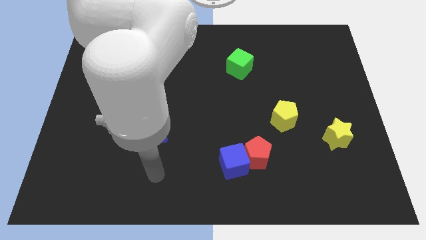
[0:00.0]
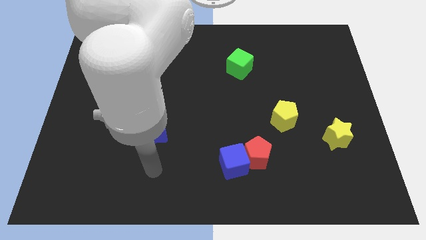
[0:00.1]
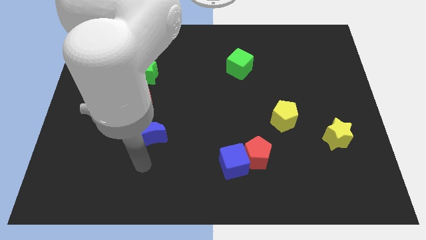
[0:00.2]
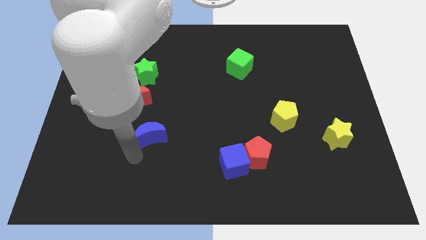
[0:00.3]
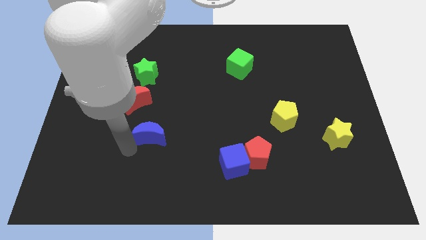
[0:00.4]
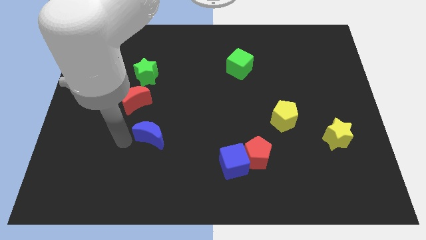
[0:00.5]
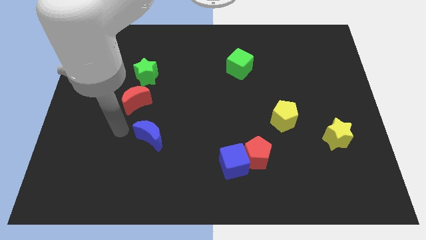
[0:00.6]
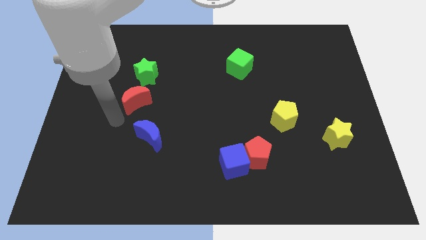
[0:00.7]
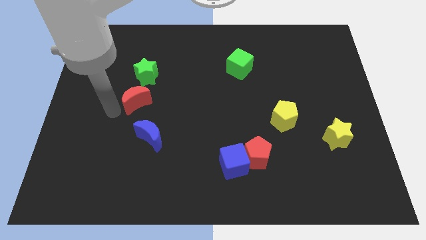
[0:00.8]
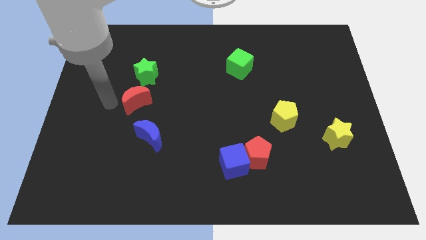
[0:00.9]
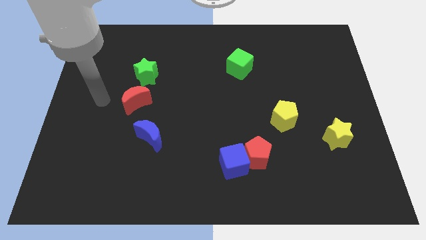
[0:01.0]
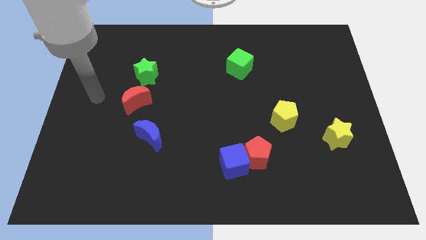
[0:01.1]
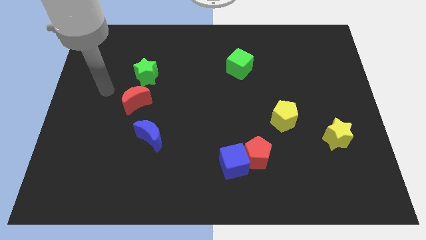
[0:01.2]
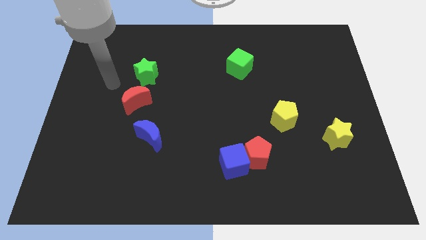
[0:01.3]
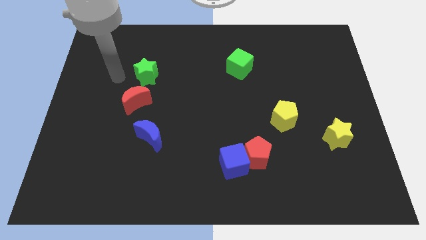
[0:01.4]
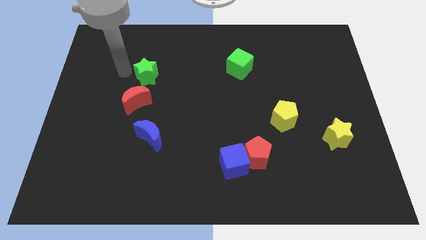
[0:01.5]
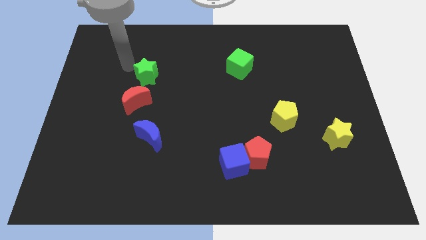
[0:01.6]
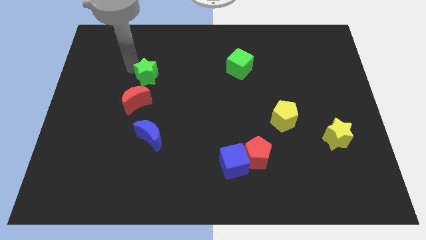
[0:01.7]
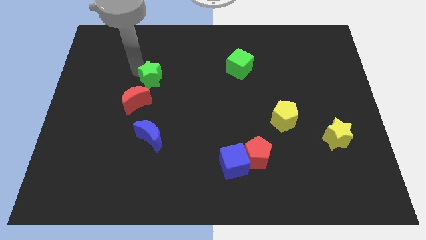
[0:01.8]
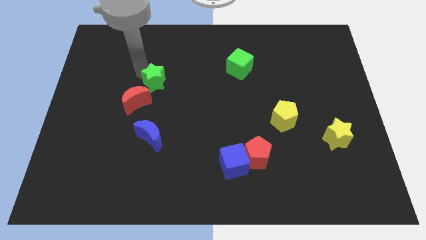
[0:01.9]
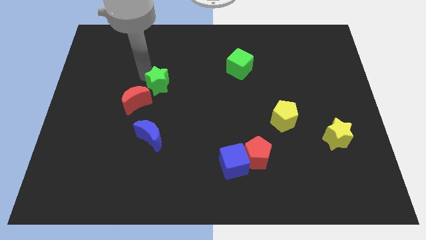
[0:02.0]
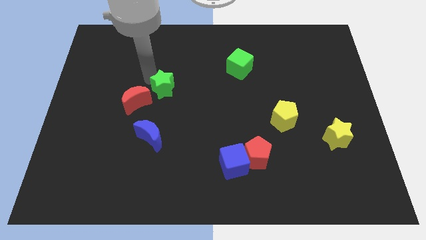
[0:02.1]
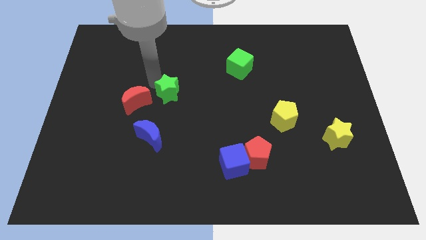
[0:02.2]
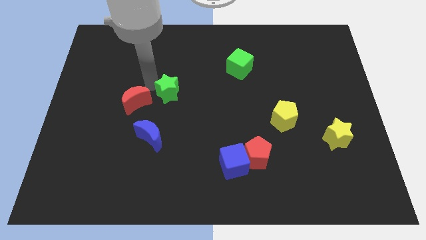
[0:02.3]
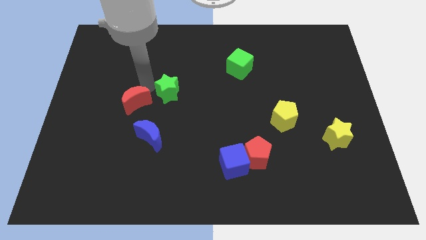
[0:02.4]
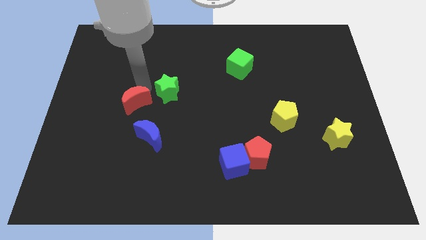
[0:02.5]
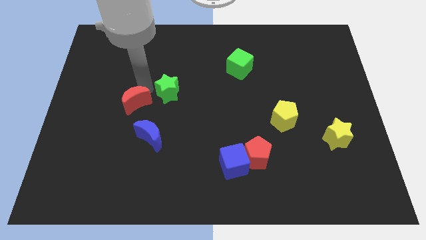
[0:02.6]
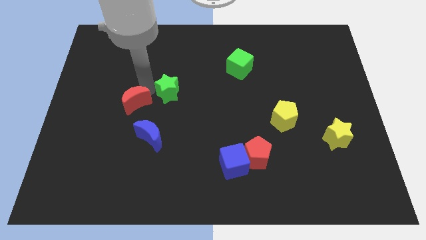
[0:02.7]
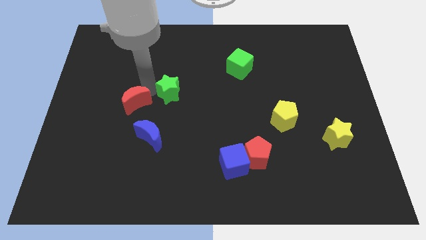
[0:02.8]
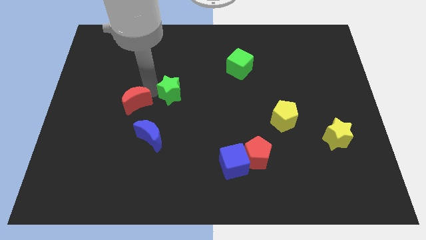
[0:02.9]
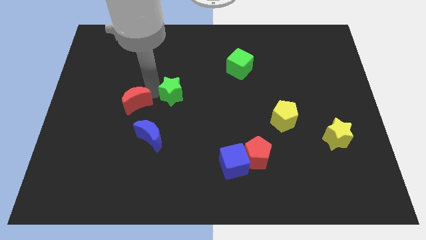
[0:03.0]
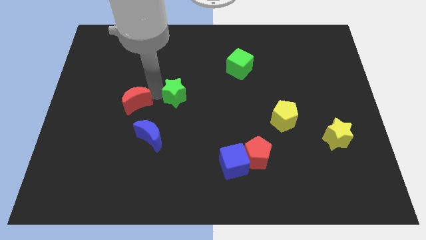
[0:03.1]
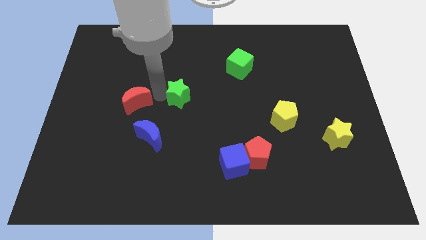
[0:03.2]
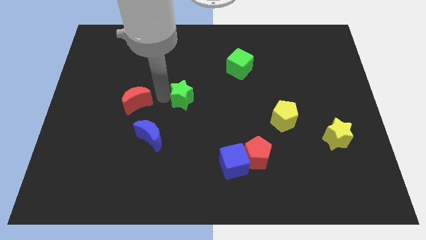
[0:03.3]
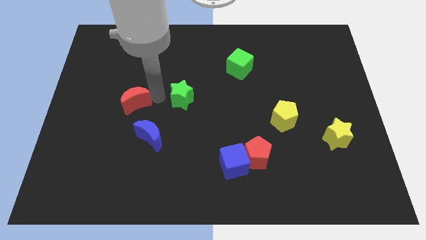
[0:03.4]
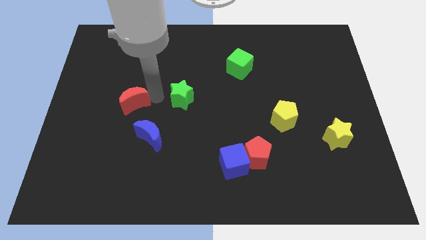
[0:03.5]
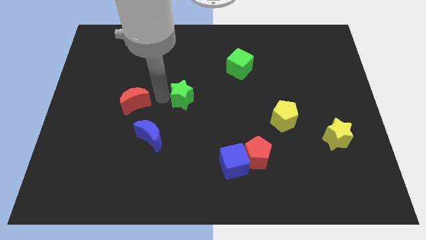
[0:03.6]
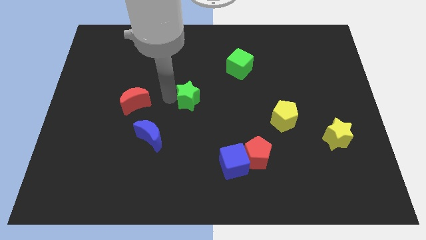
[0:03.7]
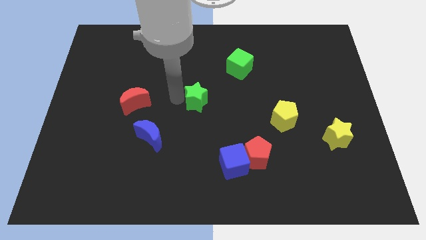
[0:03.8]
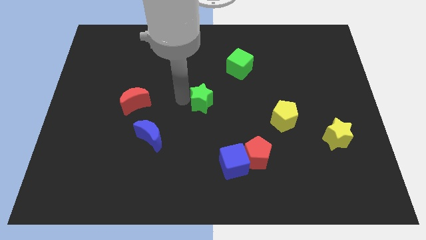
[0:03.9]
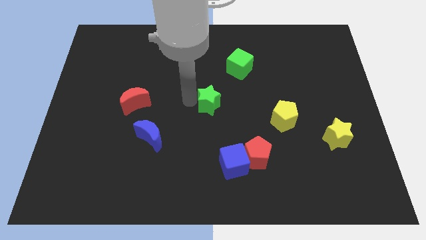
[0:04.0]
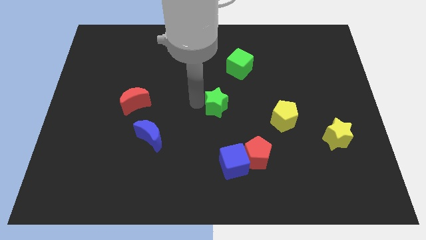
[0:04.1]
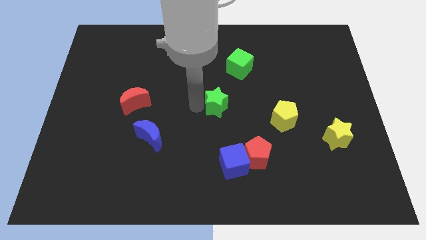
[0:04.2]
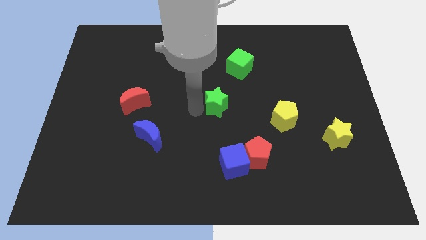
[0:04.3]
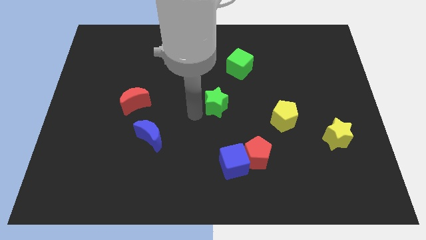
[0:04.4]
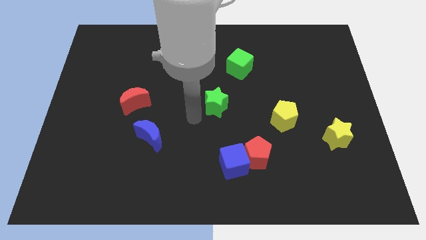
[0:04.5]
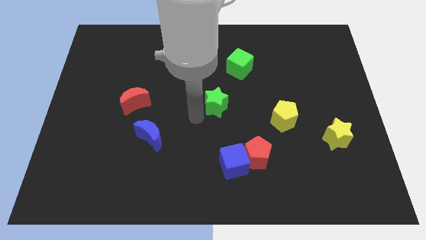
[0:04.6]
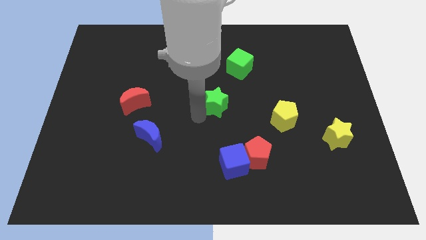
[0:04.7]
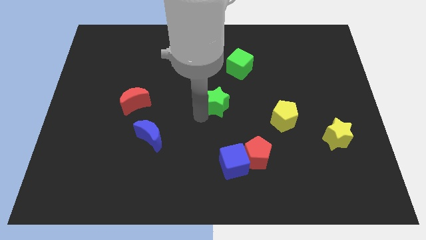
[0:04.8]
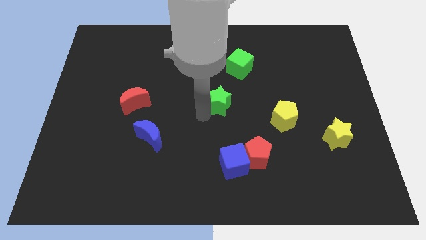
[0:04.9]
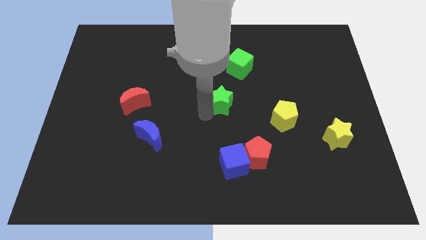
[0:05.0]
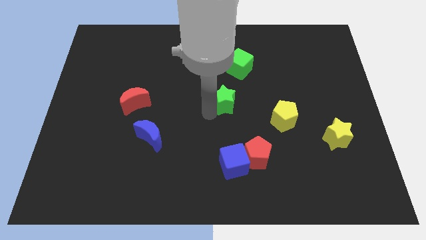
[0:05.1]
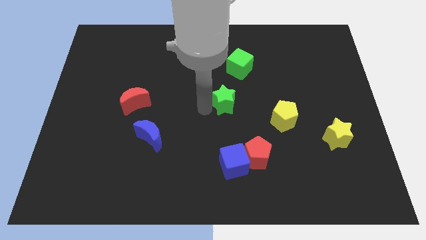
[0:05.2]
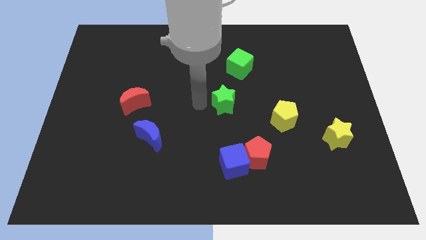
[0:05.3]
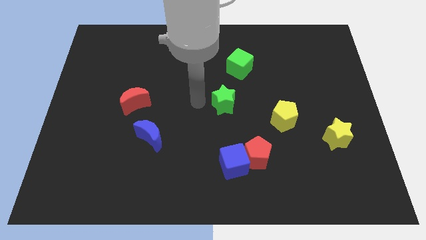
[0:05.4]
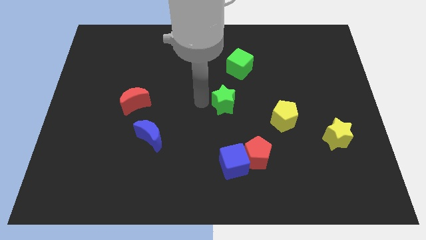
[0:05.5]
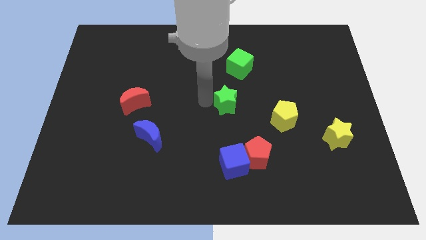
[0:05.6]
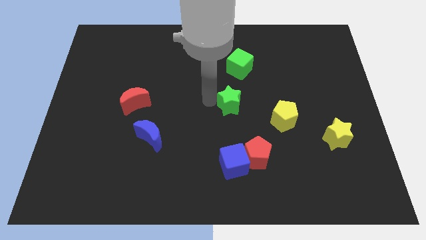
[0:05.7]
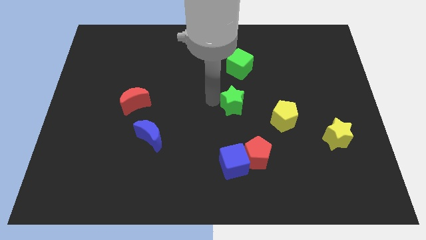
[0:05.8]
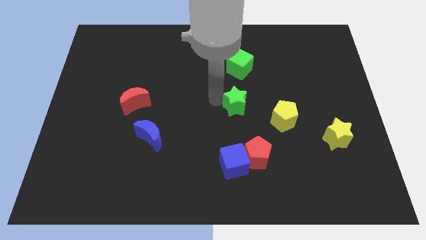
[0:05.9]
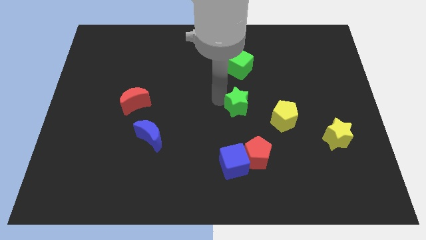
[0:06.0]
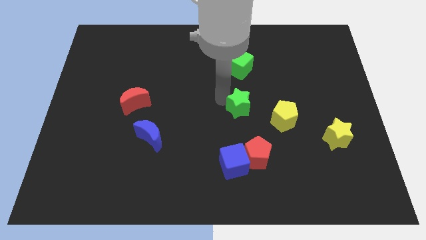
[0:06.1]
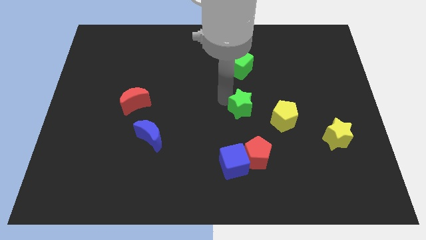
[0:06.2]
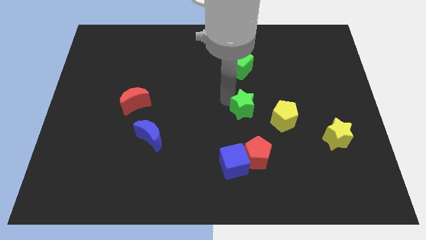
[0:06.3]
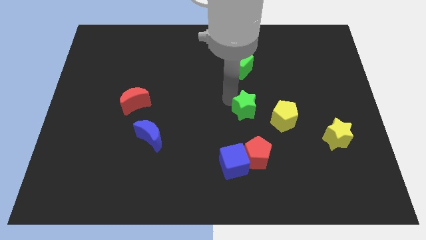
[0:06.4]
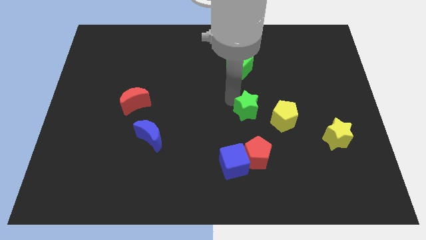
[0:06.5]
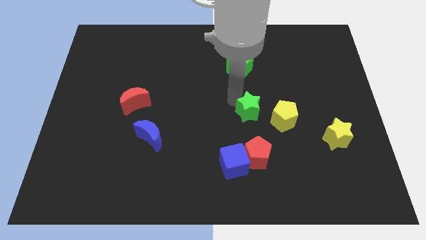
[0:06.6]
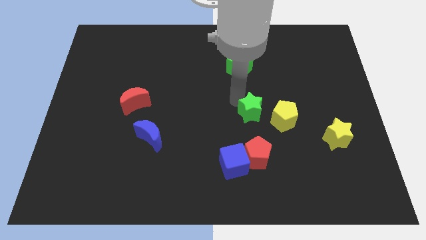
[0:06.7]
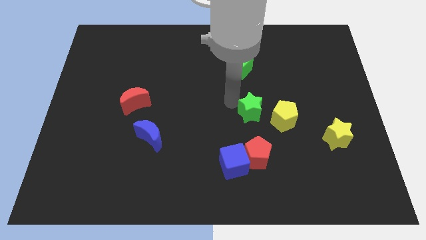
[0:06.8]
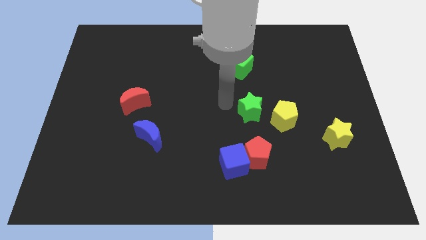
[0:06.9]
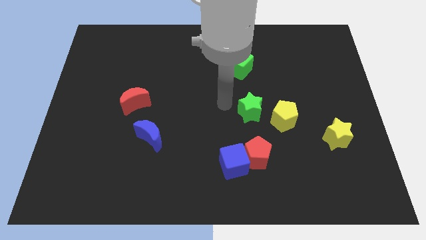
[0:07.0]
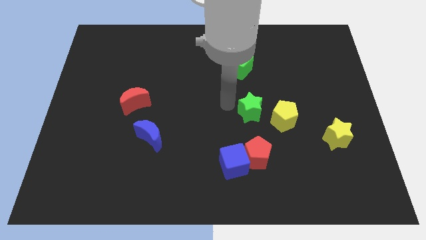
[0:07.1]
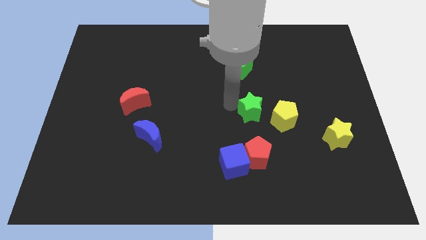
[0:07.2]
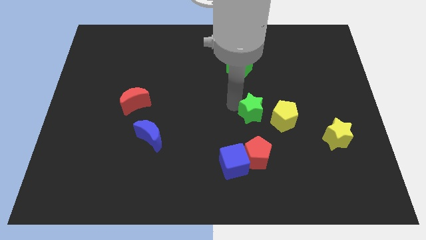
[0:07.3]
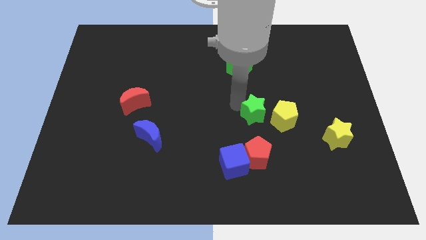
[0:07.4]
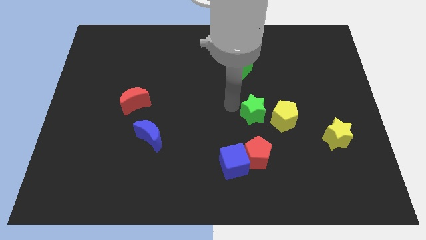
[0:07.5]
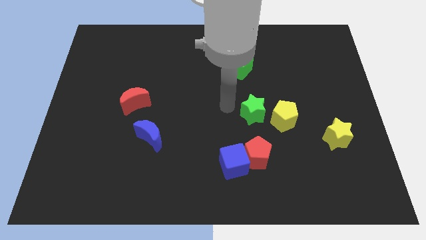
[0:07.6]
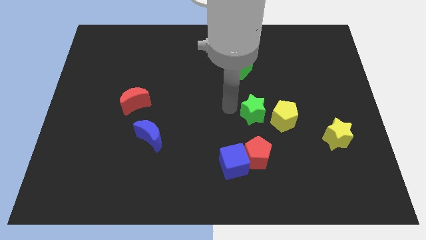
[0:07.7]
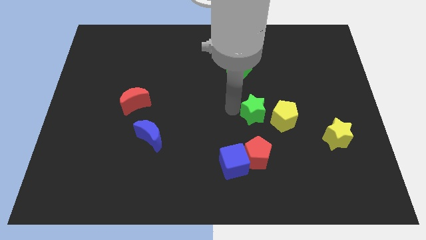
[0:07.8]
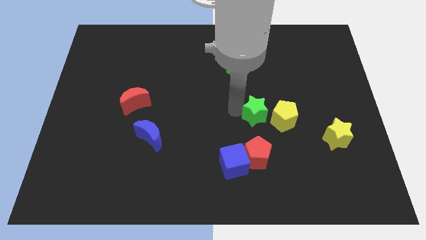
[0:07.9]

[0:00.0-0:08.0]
move the green star to the yellow pentagon
